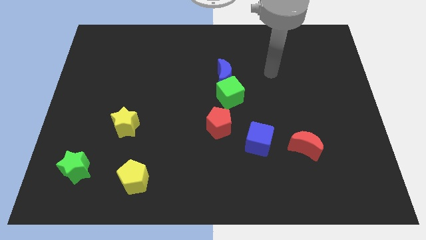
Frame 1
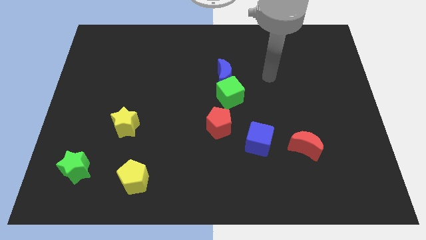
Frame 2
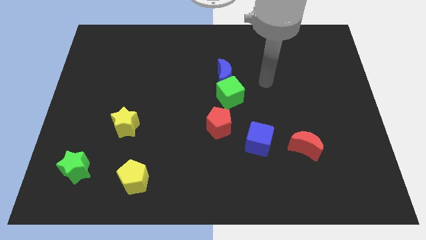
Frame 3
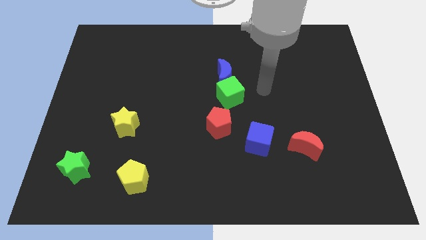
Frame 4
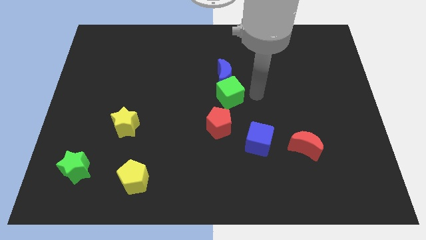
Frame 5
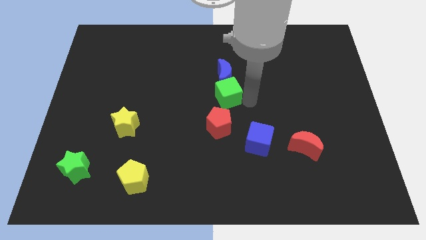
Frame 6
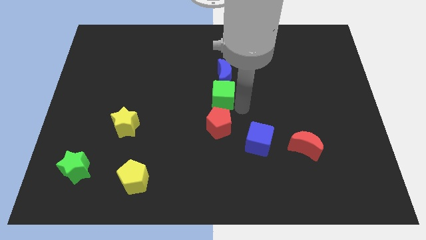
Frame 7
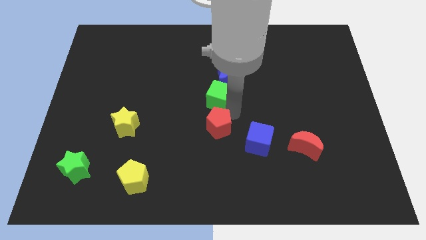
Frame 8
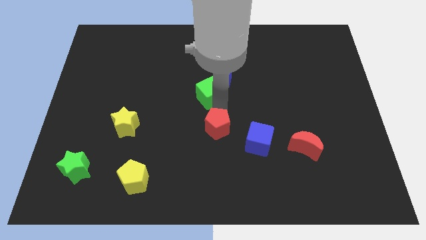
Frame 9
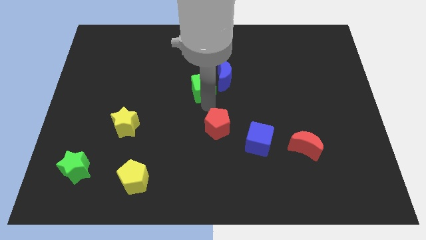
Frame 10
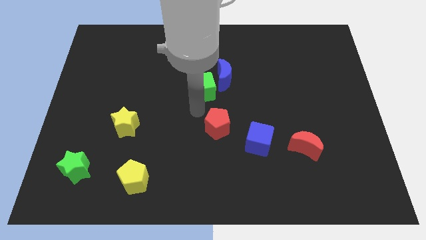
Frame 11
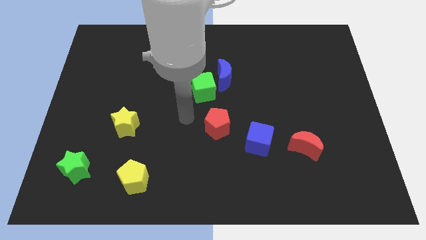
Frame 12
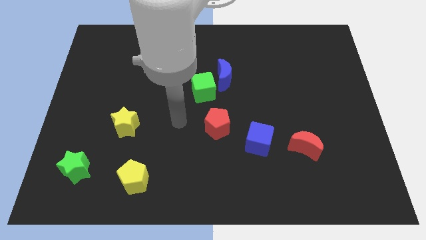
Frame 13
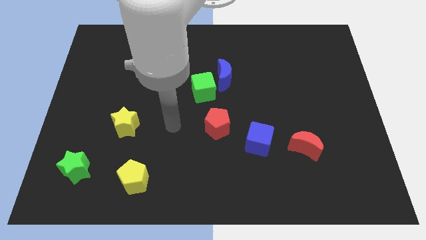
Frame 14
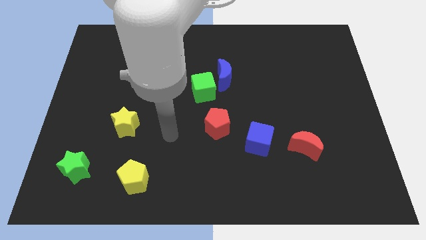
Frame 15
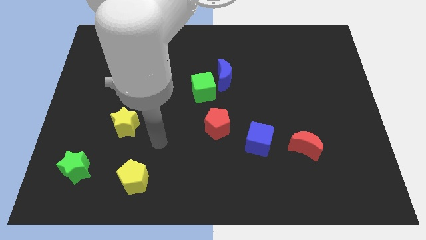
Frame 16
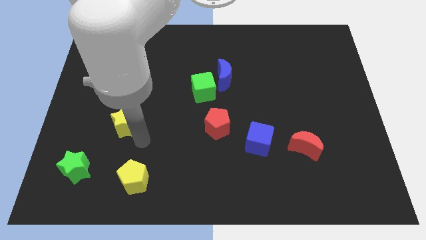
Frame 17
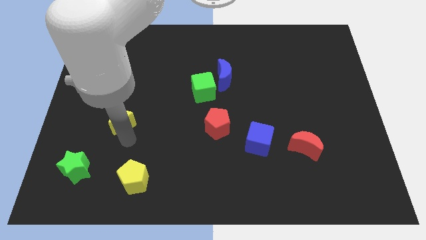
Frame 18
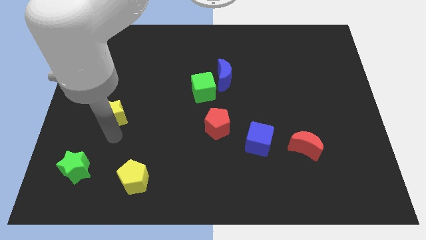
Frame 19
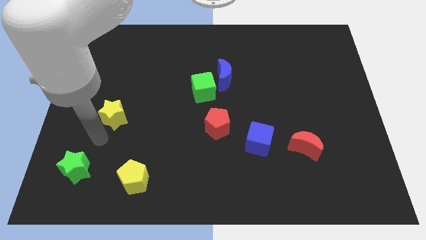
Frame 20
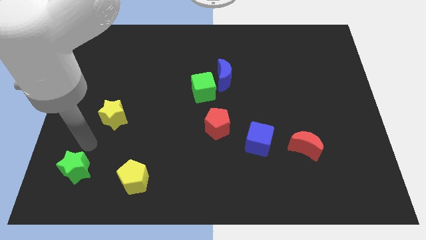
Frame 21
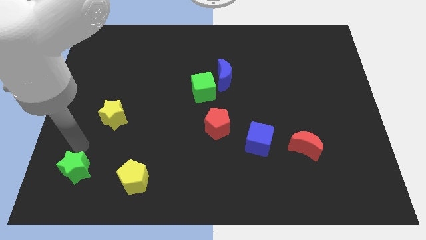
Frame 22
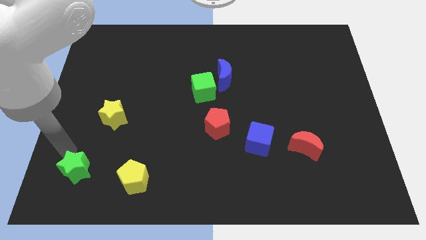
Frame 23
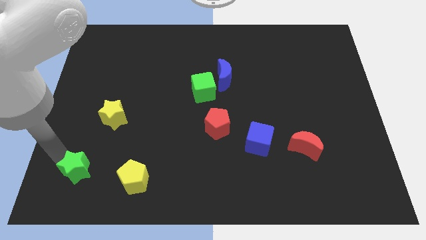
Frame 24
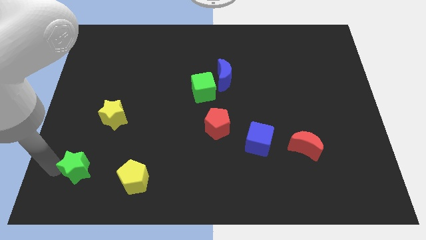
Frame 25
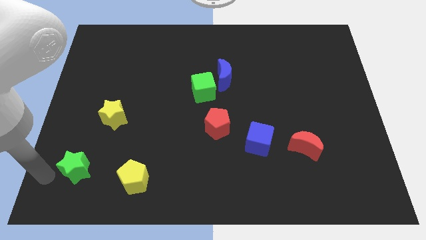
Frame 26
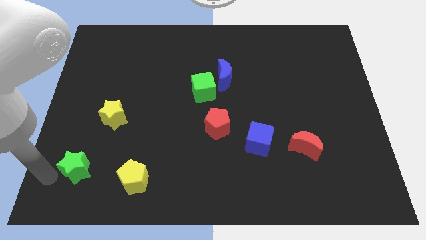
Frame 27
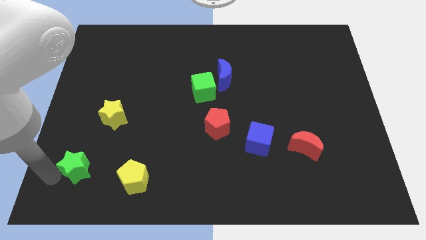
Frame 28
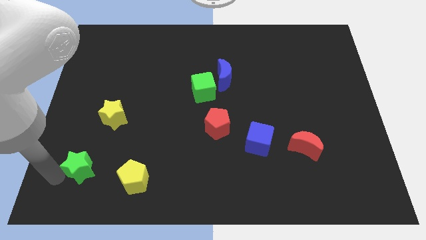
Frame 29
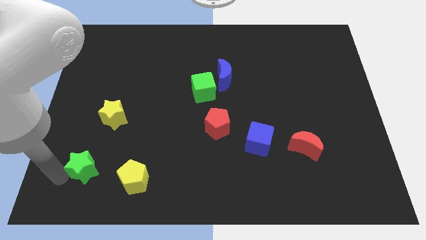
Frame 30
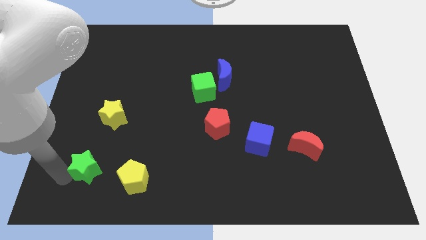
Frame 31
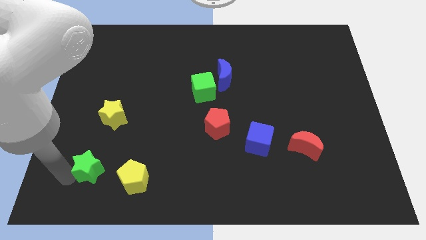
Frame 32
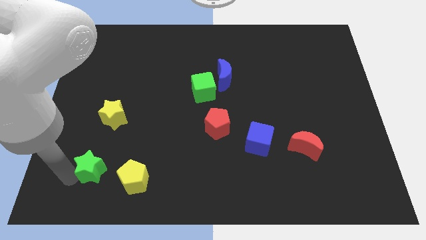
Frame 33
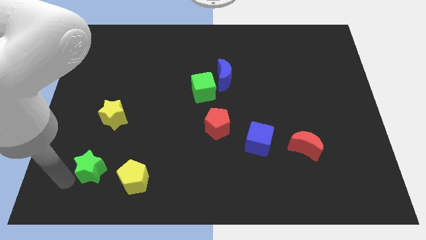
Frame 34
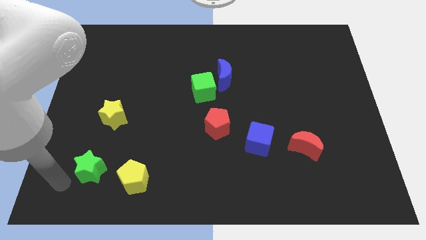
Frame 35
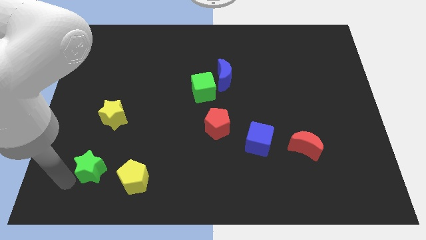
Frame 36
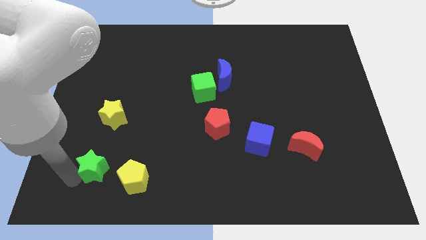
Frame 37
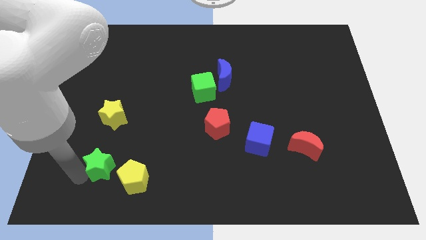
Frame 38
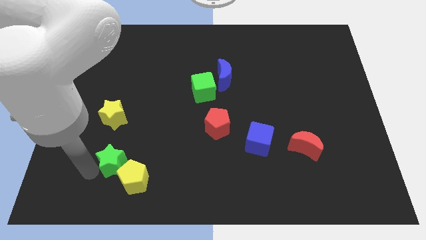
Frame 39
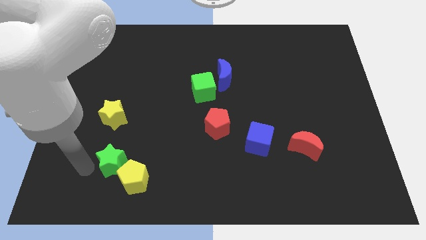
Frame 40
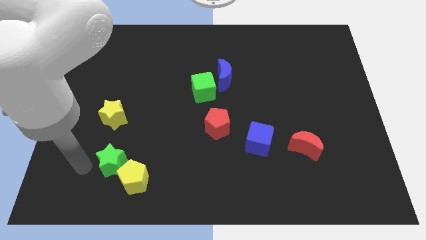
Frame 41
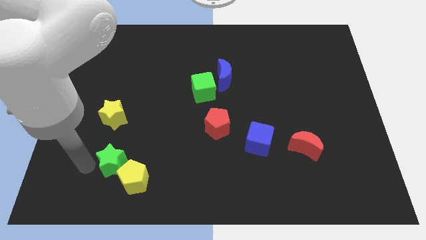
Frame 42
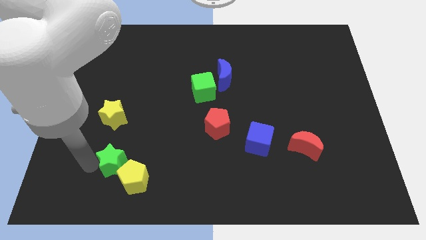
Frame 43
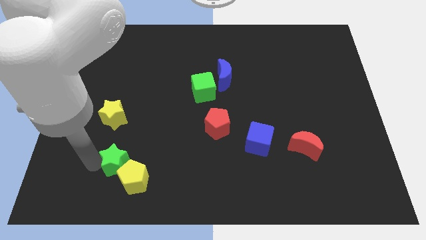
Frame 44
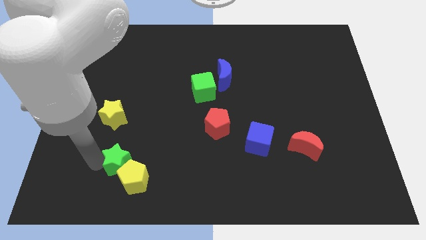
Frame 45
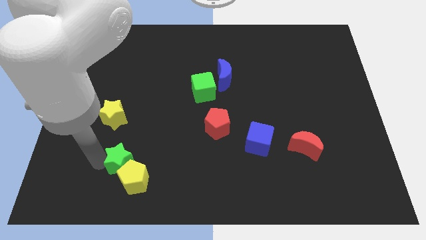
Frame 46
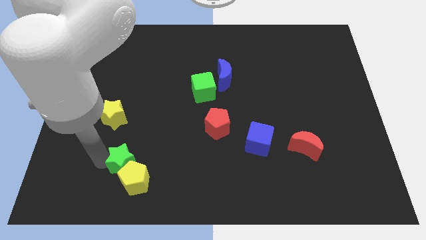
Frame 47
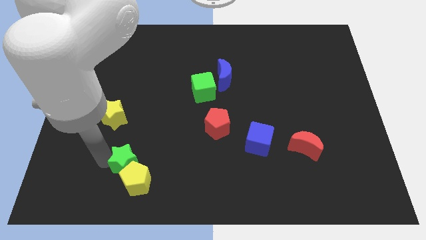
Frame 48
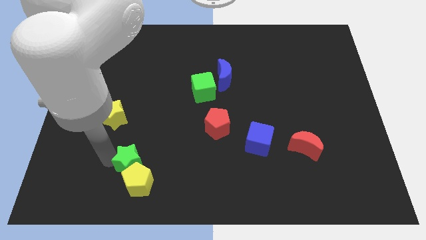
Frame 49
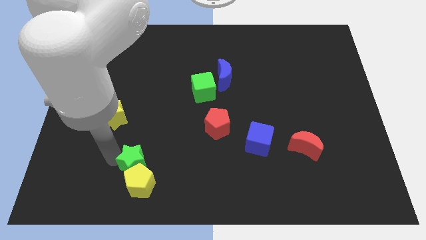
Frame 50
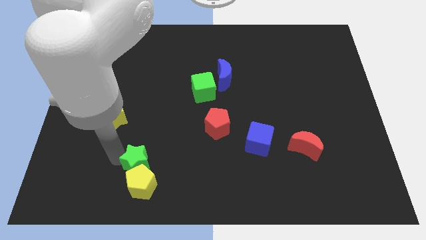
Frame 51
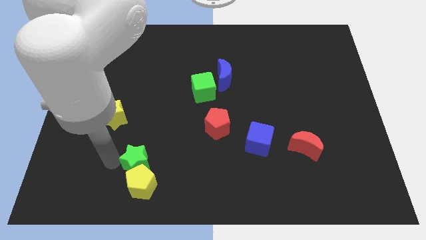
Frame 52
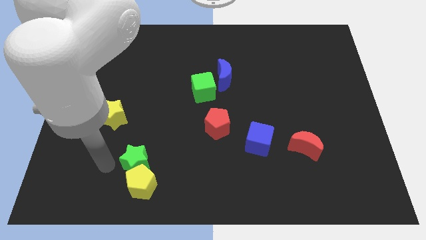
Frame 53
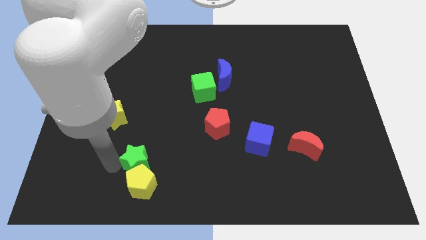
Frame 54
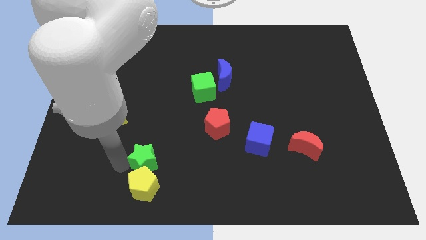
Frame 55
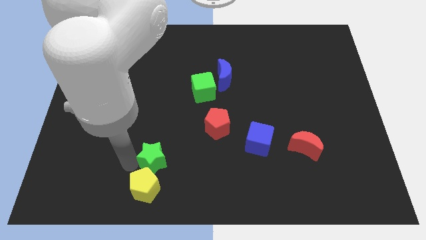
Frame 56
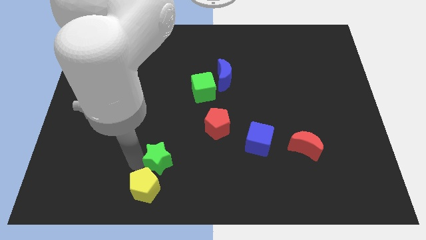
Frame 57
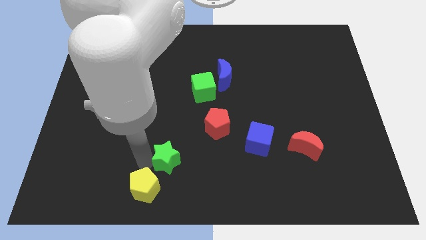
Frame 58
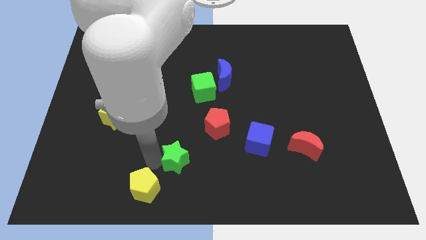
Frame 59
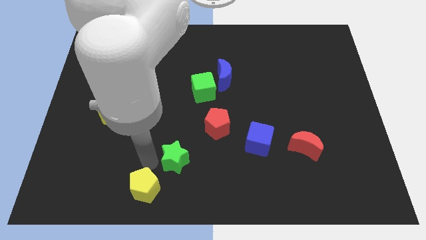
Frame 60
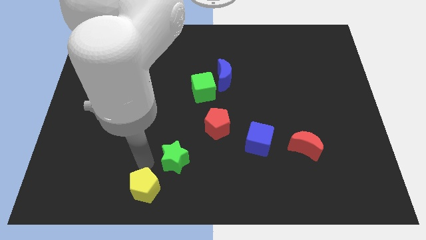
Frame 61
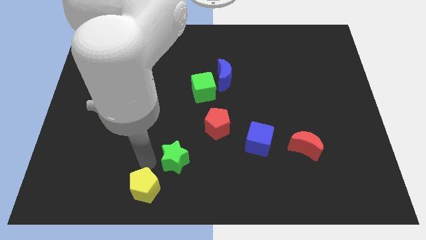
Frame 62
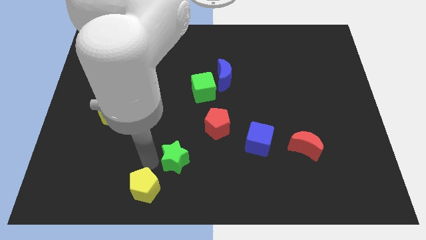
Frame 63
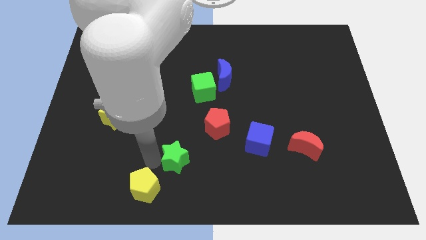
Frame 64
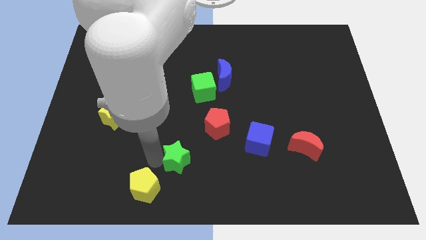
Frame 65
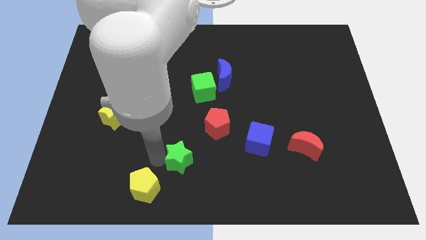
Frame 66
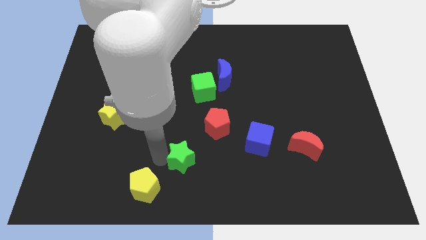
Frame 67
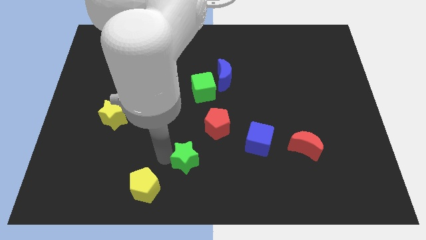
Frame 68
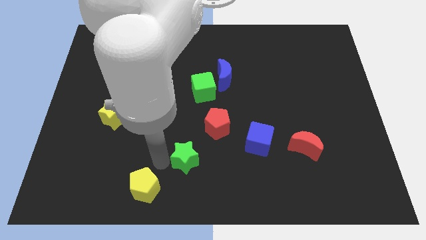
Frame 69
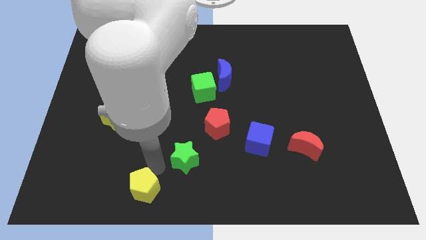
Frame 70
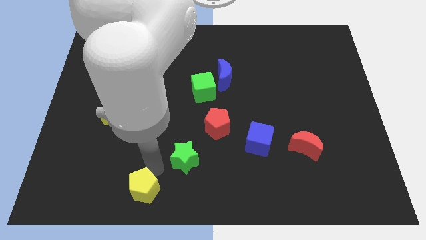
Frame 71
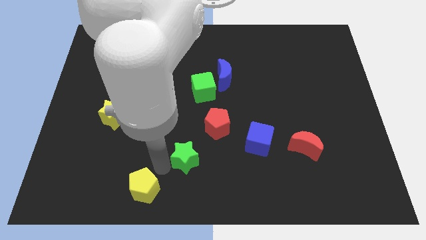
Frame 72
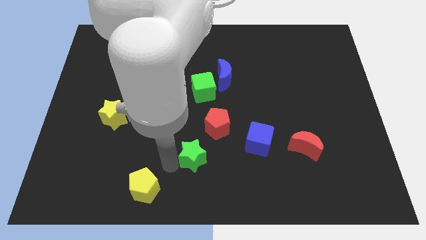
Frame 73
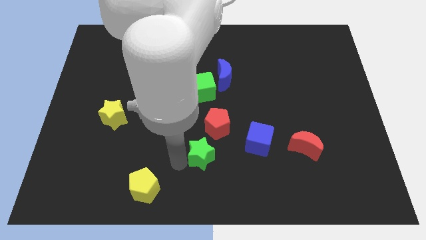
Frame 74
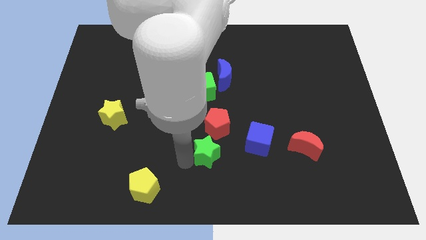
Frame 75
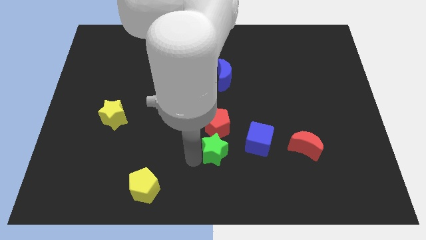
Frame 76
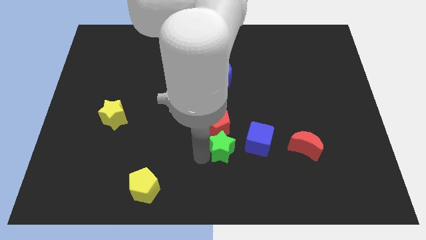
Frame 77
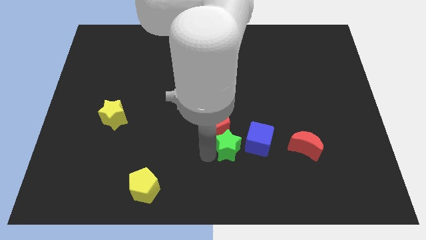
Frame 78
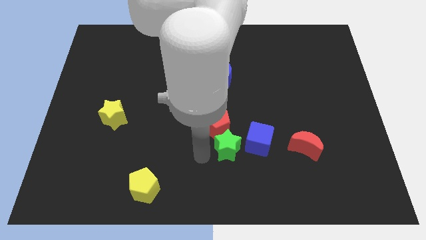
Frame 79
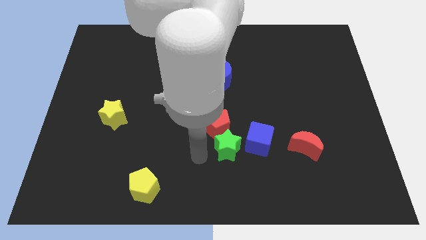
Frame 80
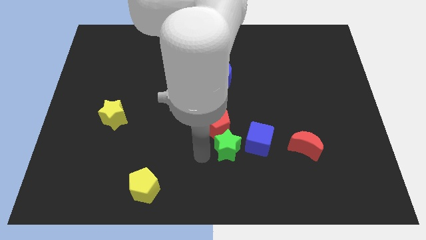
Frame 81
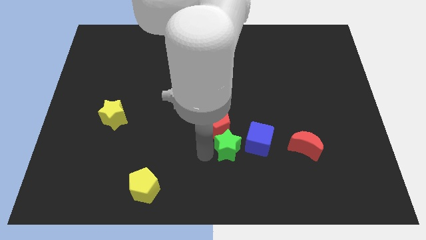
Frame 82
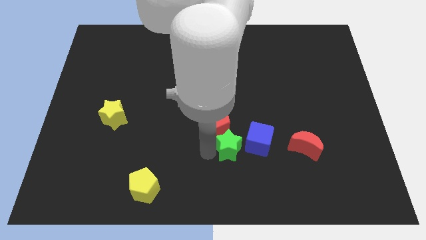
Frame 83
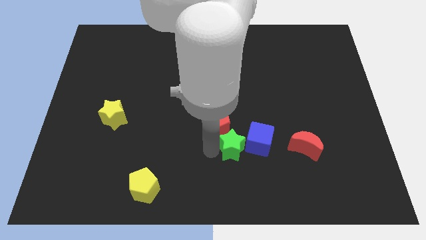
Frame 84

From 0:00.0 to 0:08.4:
push the green star close to the blue cube
